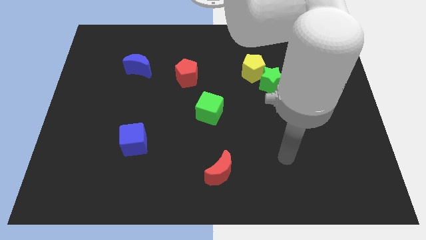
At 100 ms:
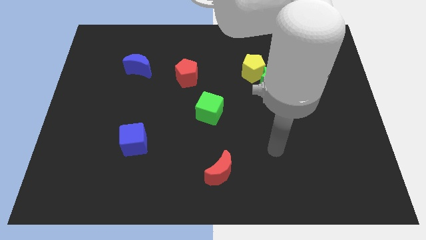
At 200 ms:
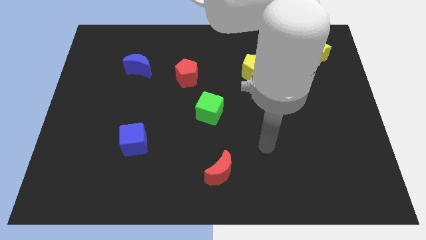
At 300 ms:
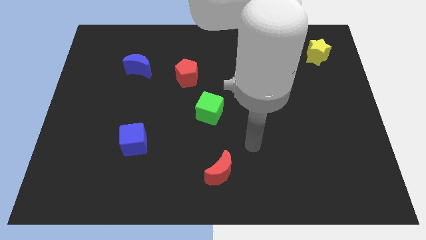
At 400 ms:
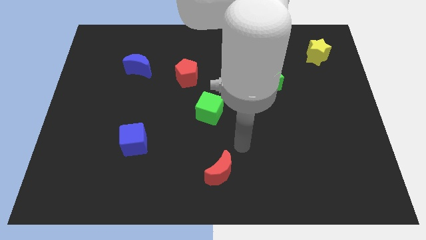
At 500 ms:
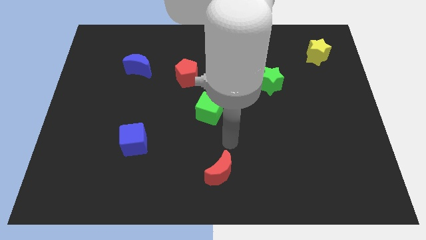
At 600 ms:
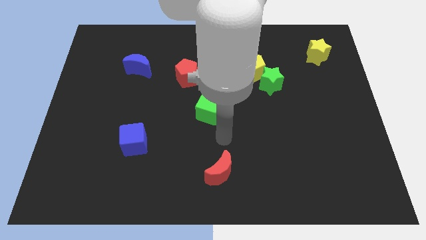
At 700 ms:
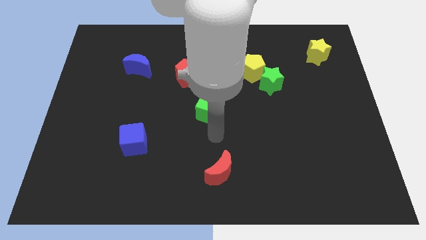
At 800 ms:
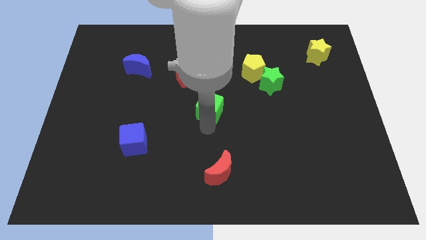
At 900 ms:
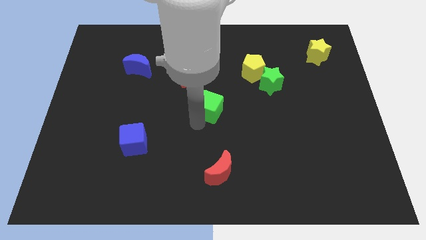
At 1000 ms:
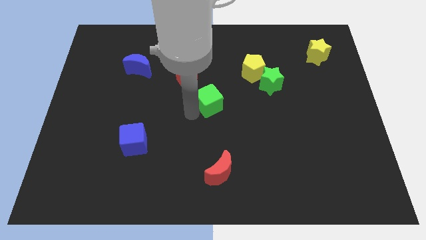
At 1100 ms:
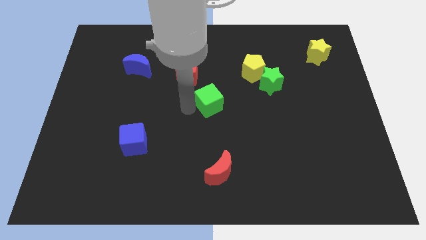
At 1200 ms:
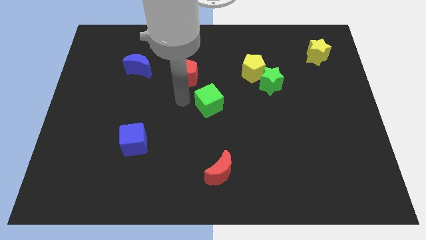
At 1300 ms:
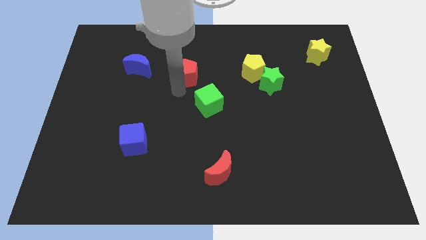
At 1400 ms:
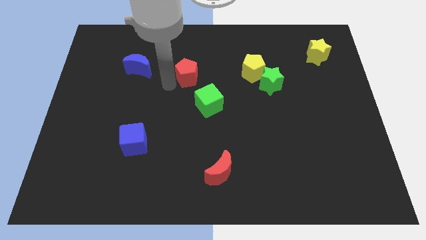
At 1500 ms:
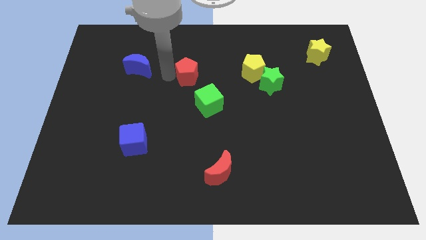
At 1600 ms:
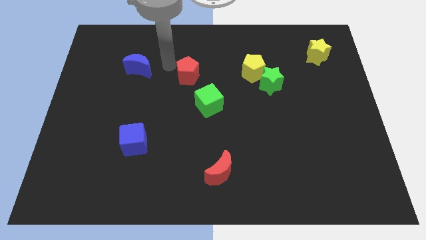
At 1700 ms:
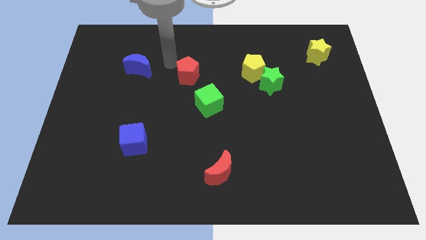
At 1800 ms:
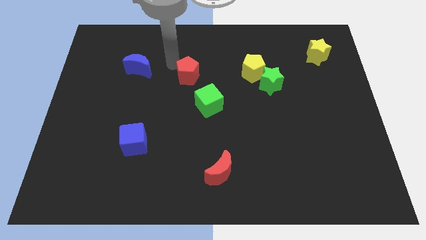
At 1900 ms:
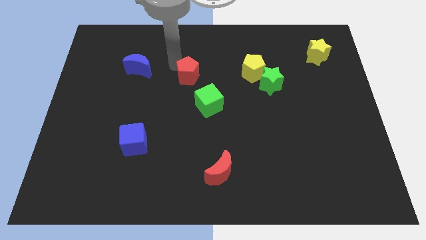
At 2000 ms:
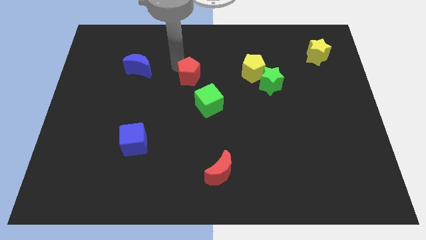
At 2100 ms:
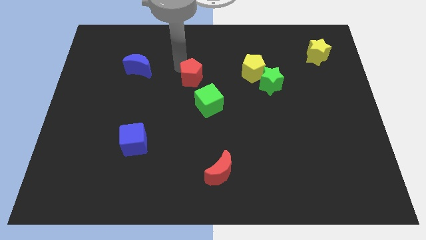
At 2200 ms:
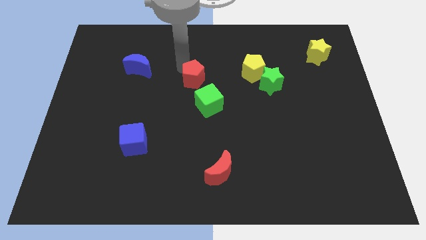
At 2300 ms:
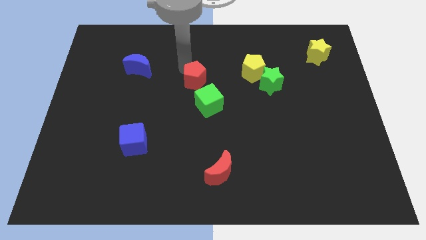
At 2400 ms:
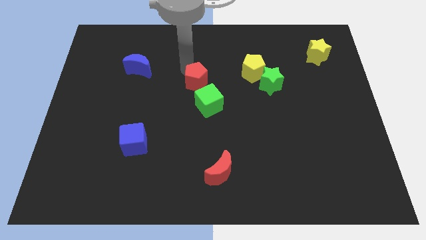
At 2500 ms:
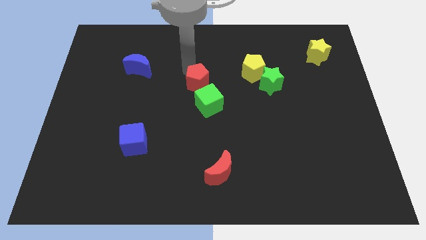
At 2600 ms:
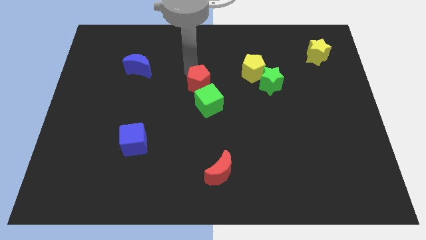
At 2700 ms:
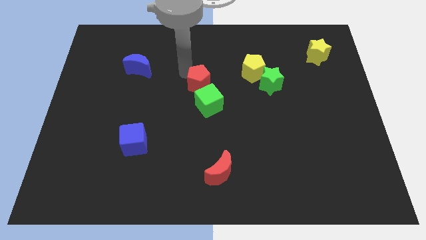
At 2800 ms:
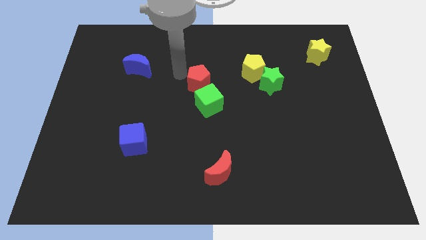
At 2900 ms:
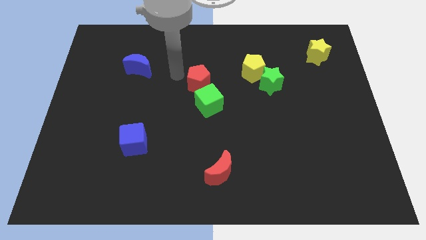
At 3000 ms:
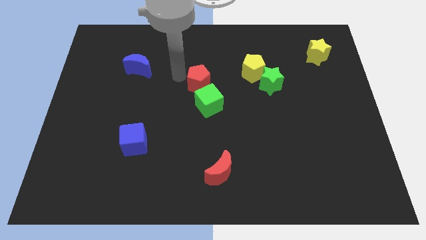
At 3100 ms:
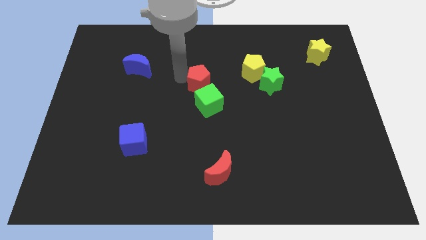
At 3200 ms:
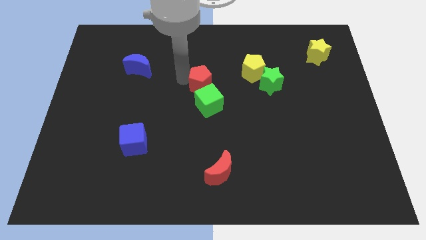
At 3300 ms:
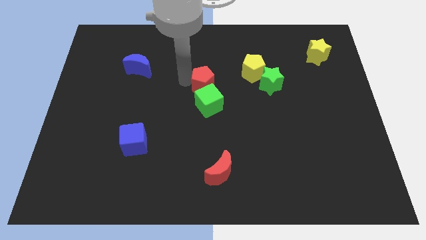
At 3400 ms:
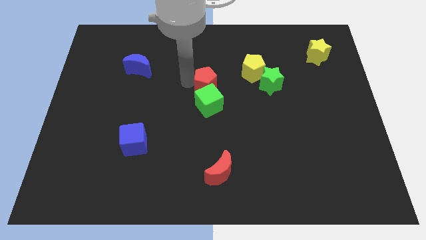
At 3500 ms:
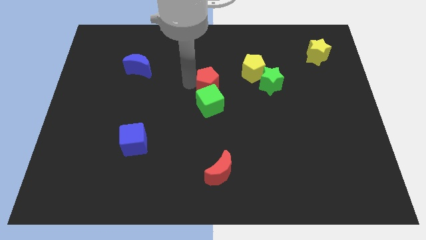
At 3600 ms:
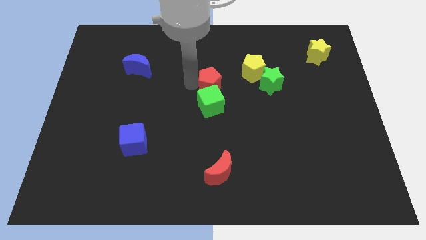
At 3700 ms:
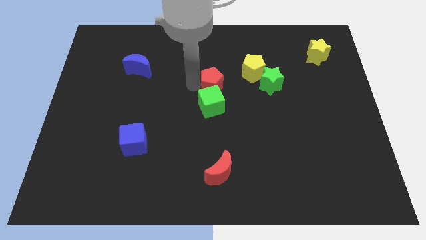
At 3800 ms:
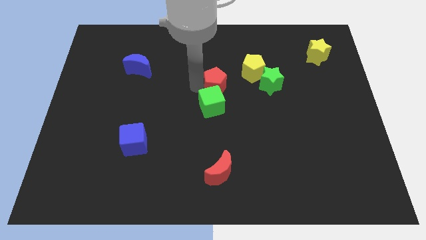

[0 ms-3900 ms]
slightly move the red pentagon downwards and then to the right

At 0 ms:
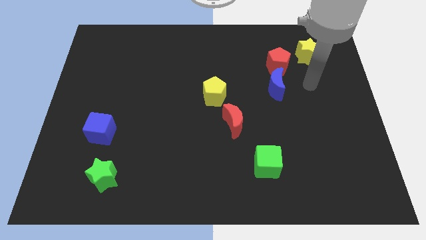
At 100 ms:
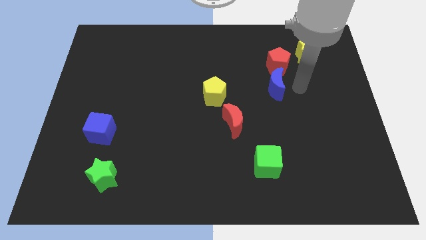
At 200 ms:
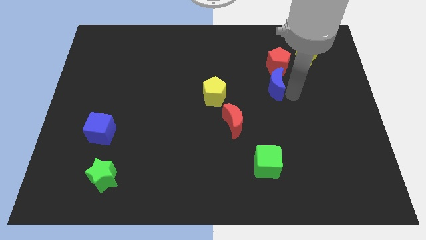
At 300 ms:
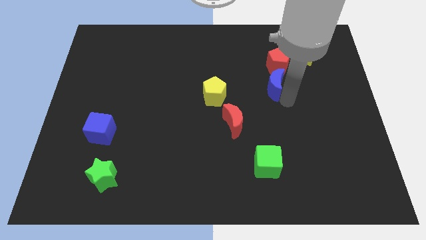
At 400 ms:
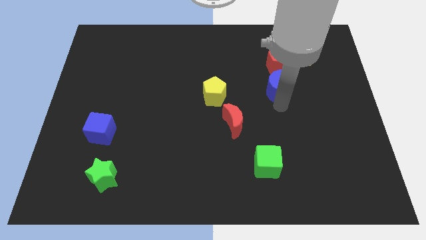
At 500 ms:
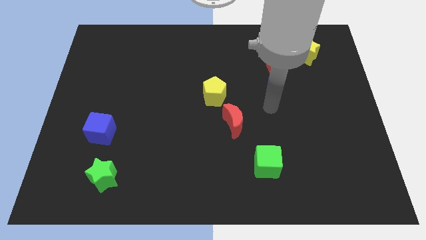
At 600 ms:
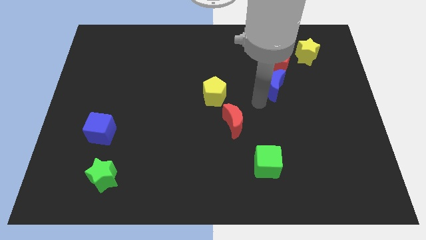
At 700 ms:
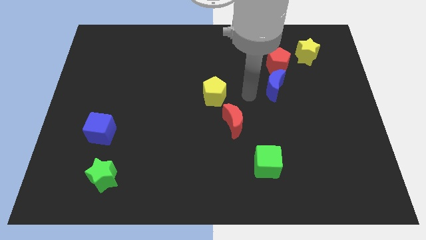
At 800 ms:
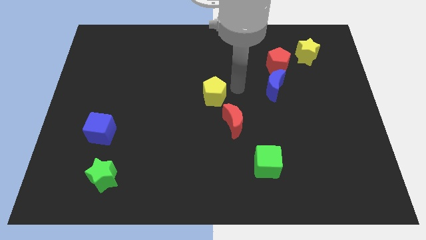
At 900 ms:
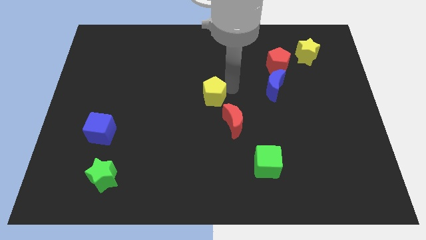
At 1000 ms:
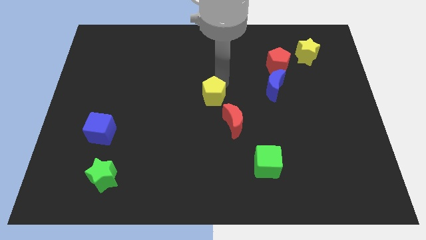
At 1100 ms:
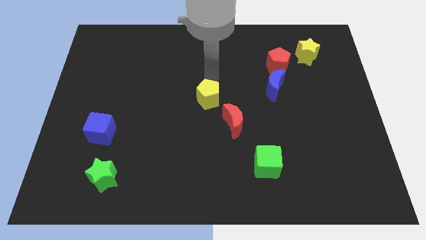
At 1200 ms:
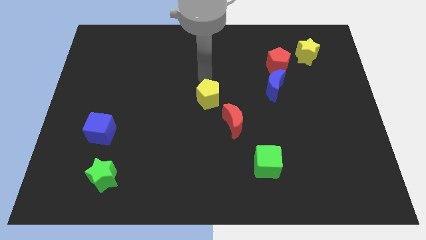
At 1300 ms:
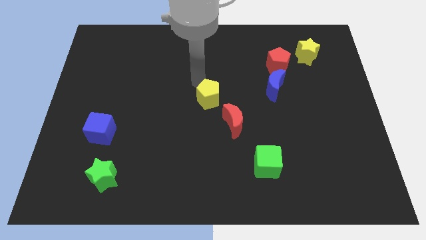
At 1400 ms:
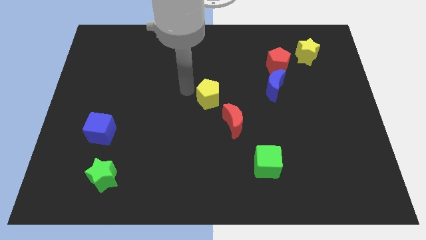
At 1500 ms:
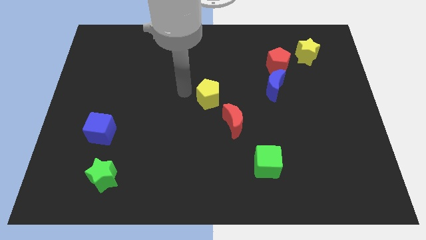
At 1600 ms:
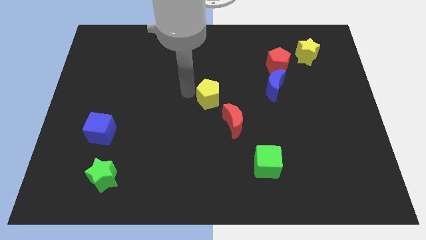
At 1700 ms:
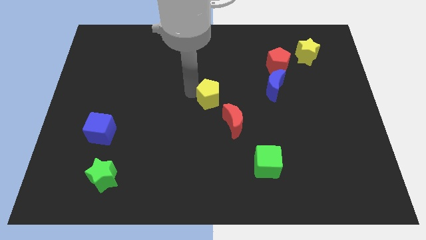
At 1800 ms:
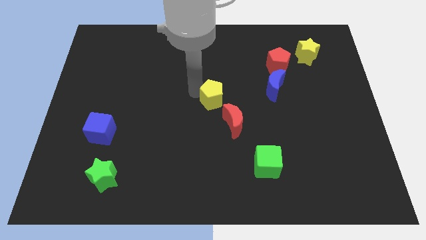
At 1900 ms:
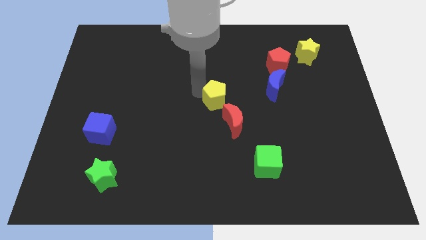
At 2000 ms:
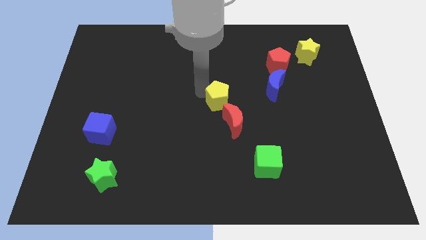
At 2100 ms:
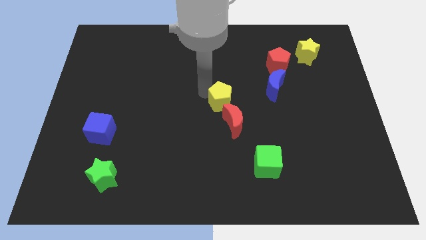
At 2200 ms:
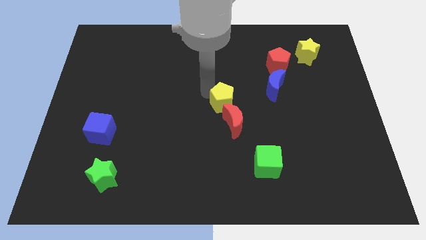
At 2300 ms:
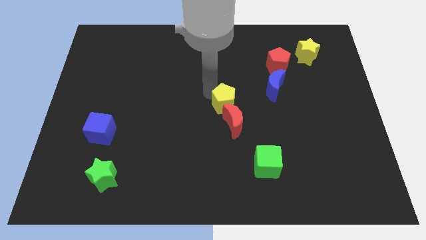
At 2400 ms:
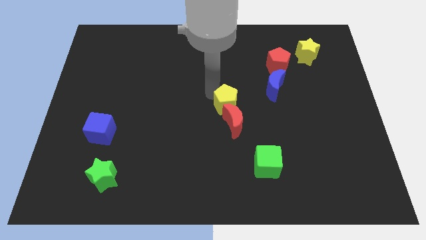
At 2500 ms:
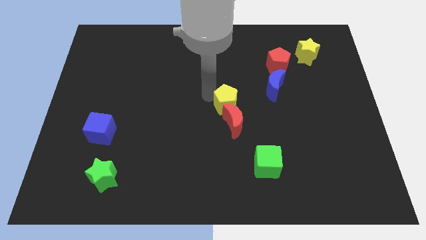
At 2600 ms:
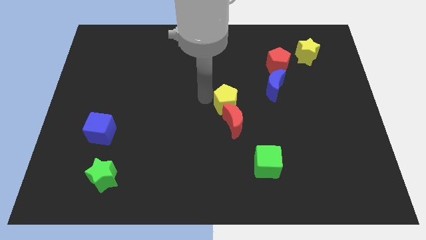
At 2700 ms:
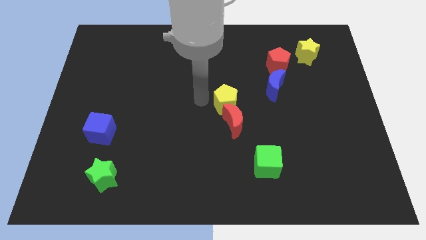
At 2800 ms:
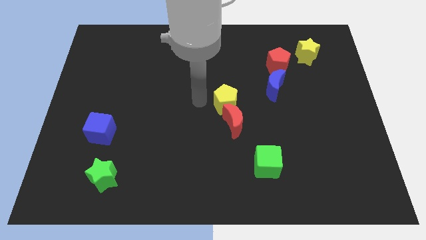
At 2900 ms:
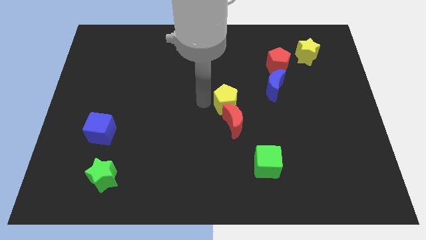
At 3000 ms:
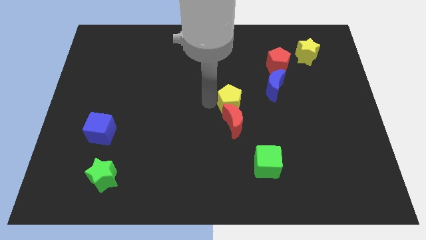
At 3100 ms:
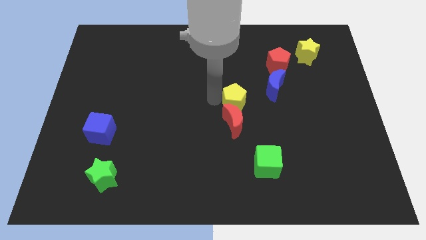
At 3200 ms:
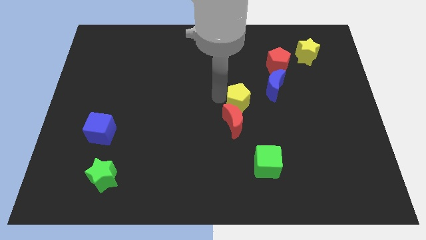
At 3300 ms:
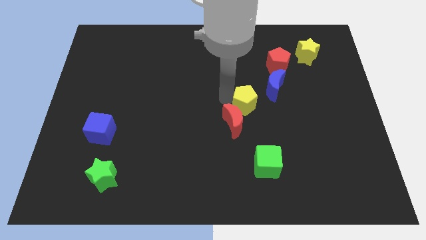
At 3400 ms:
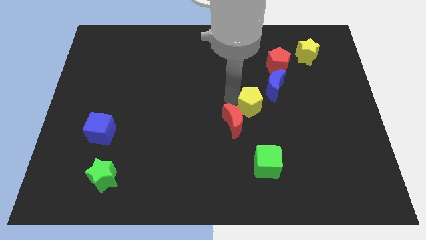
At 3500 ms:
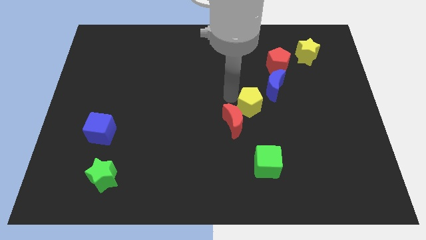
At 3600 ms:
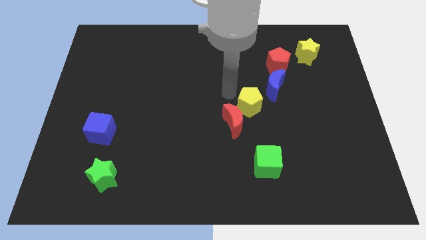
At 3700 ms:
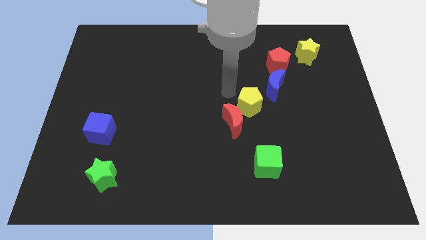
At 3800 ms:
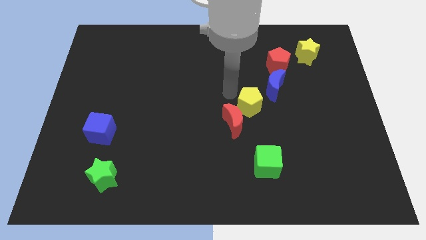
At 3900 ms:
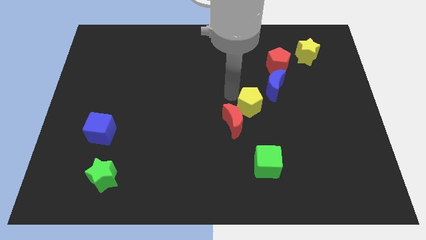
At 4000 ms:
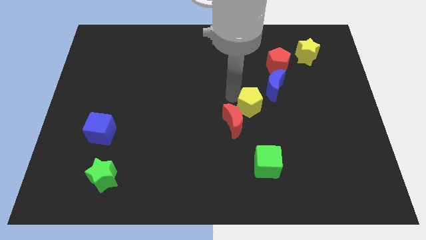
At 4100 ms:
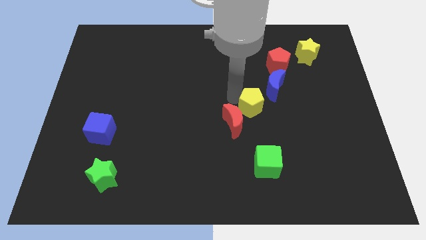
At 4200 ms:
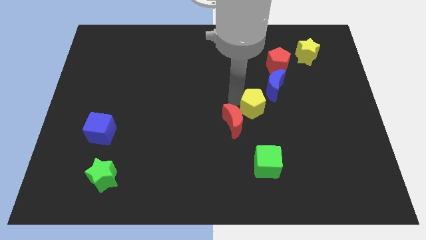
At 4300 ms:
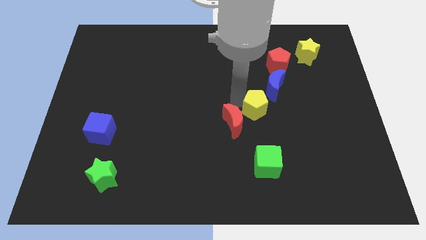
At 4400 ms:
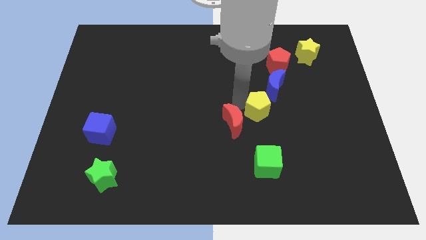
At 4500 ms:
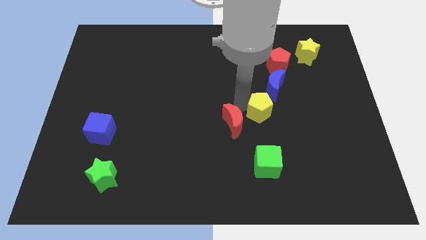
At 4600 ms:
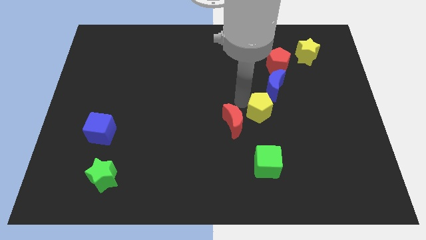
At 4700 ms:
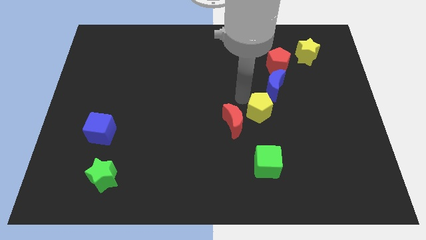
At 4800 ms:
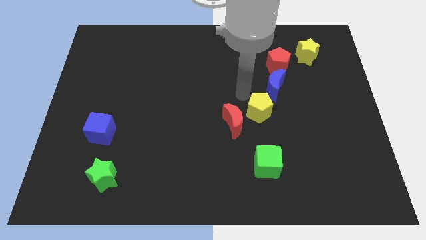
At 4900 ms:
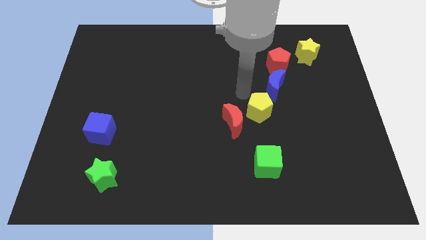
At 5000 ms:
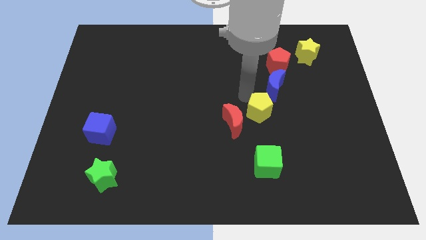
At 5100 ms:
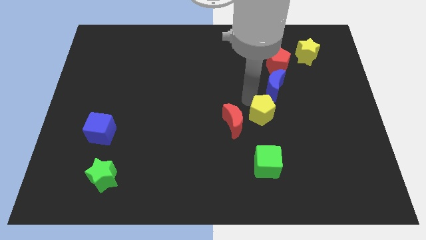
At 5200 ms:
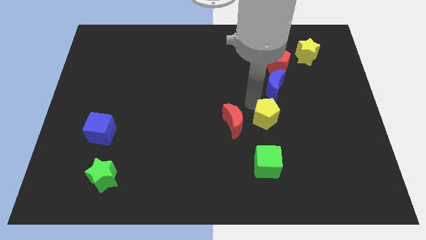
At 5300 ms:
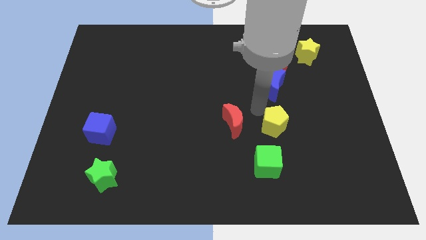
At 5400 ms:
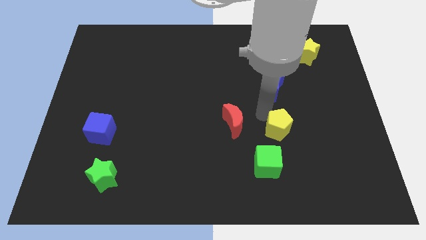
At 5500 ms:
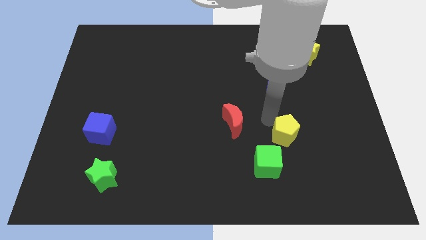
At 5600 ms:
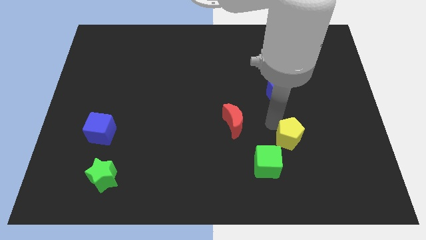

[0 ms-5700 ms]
slide the yellow pentagon downwards and right
